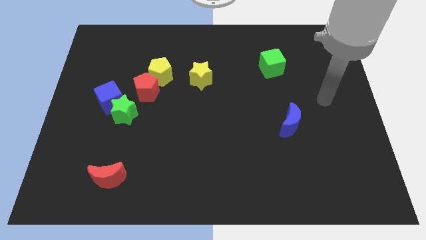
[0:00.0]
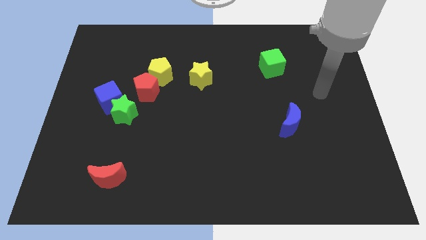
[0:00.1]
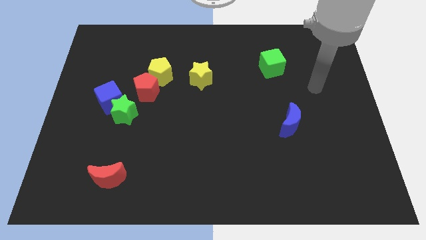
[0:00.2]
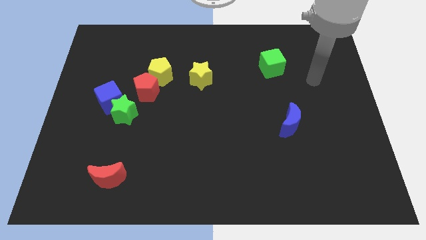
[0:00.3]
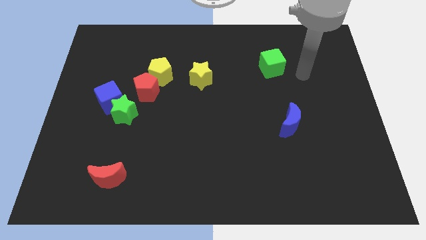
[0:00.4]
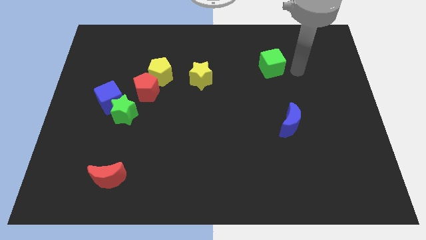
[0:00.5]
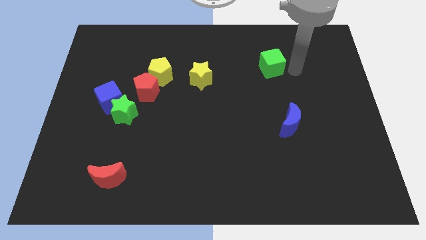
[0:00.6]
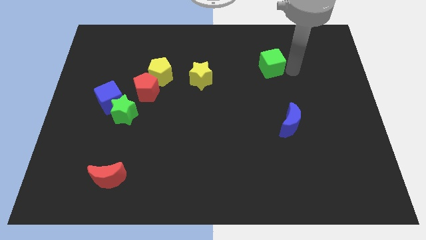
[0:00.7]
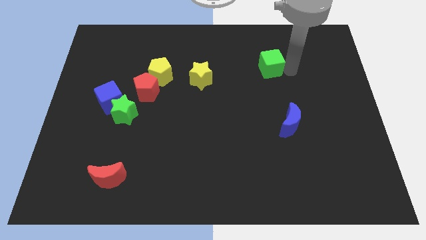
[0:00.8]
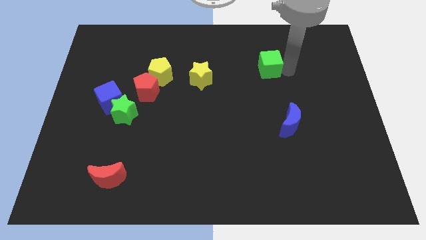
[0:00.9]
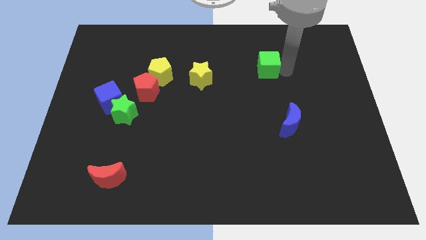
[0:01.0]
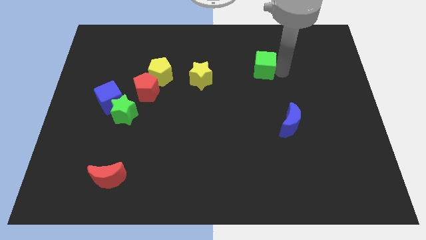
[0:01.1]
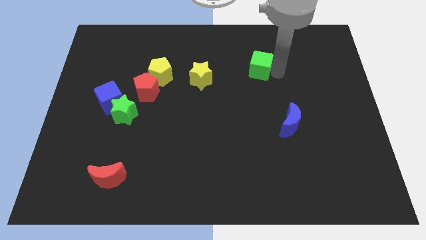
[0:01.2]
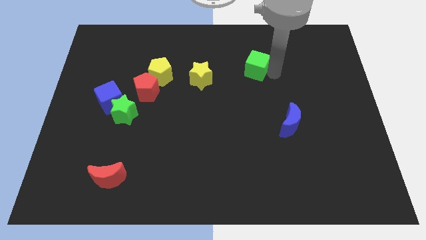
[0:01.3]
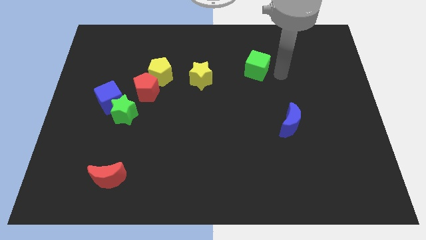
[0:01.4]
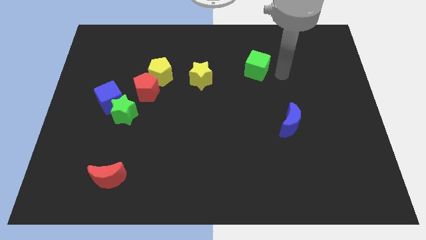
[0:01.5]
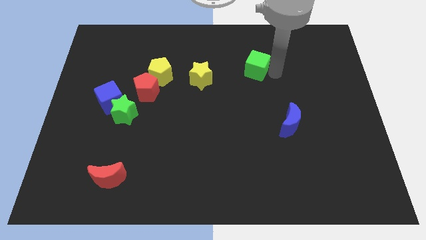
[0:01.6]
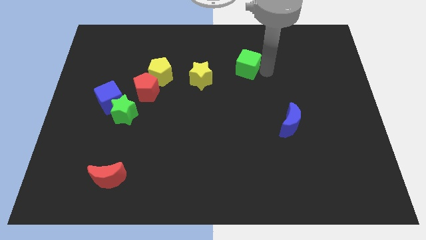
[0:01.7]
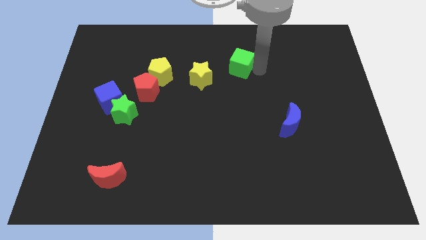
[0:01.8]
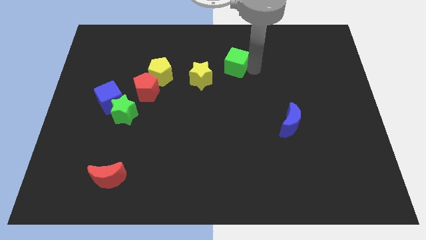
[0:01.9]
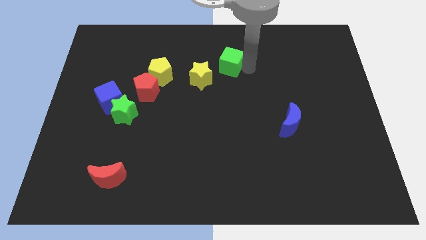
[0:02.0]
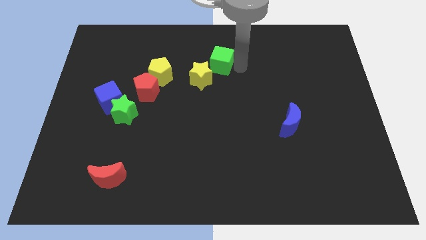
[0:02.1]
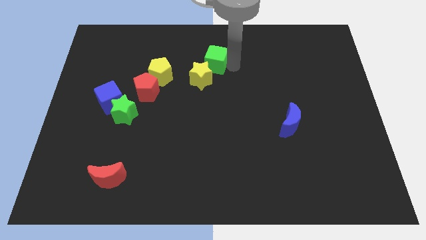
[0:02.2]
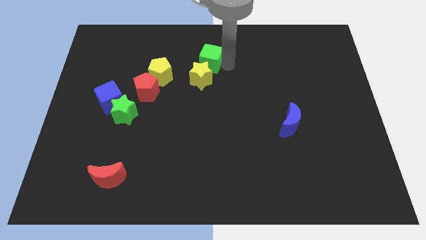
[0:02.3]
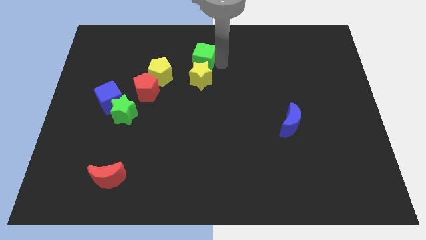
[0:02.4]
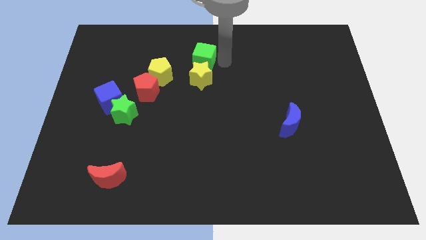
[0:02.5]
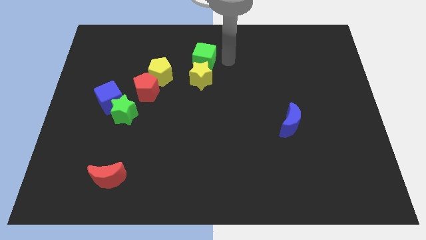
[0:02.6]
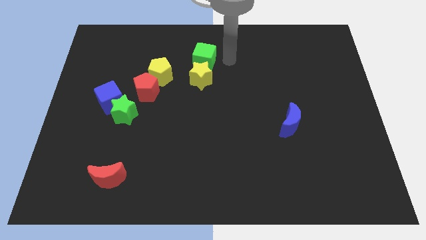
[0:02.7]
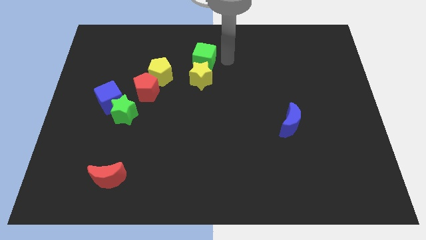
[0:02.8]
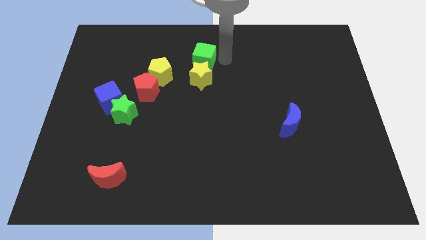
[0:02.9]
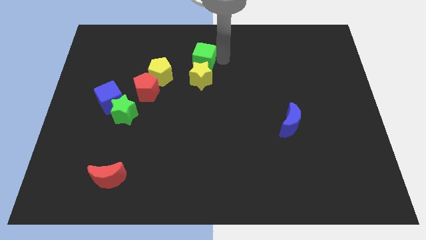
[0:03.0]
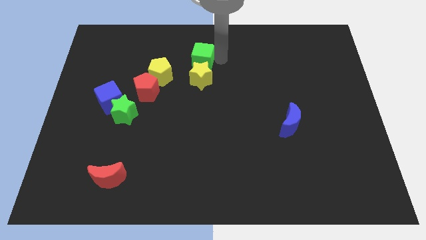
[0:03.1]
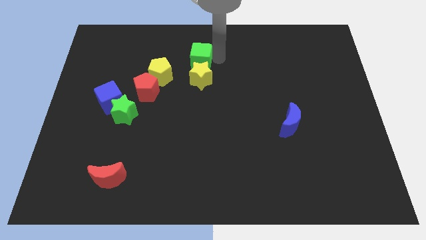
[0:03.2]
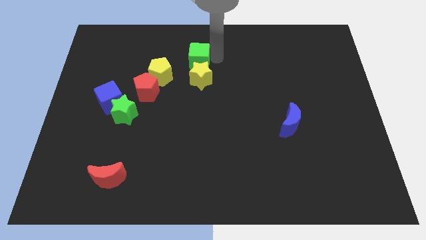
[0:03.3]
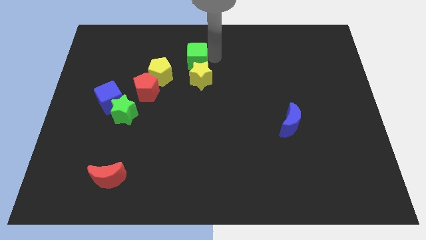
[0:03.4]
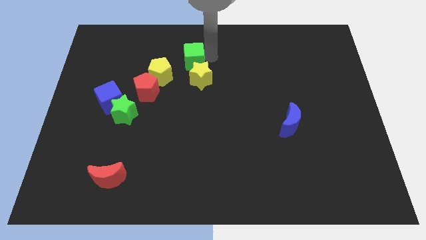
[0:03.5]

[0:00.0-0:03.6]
slide the green cube left

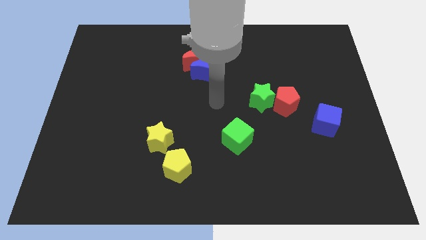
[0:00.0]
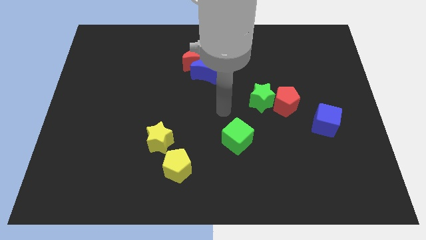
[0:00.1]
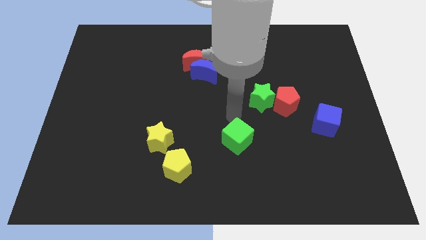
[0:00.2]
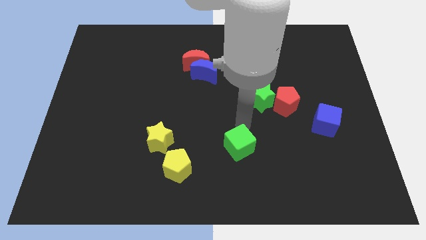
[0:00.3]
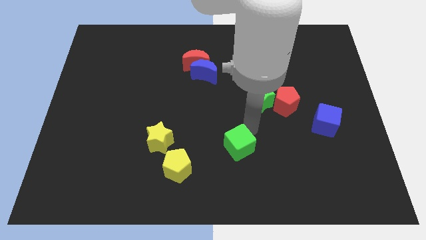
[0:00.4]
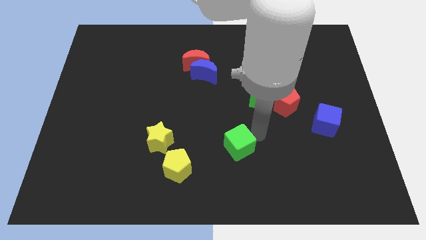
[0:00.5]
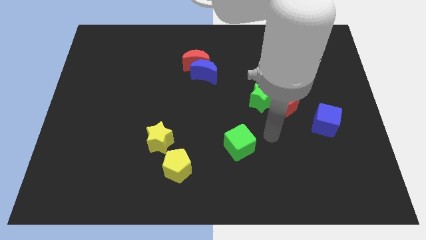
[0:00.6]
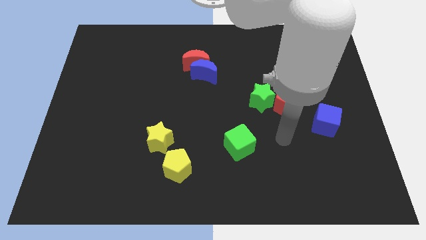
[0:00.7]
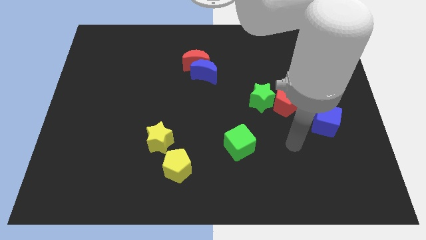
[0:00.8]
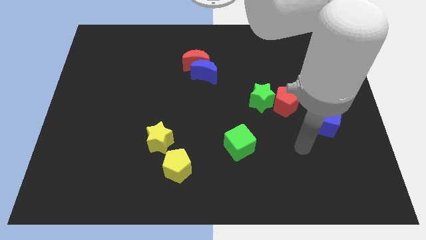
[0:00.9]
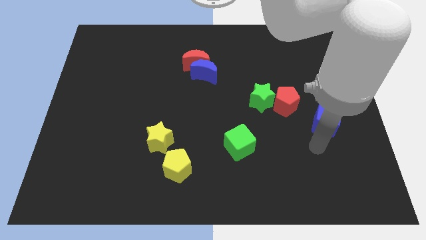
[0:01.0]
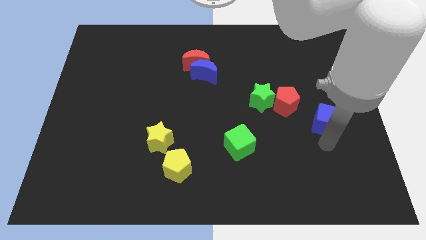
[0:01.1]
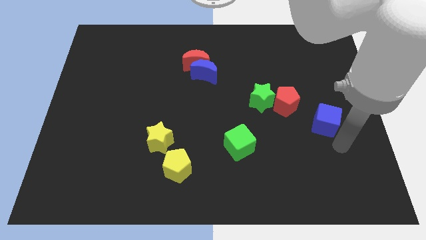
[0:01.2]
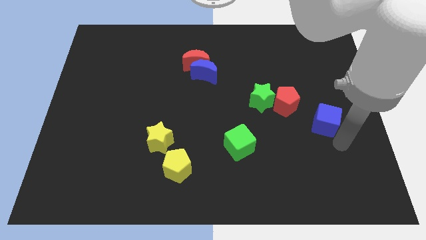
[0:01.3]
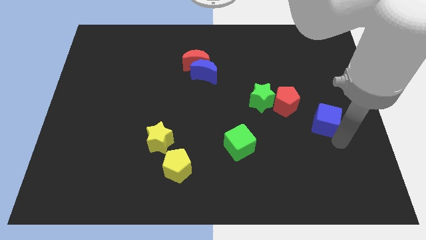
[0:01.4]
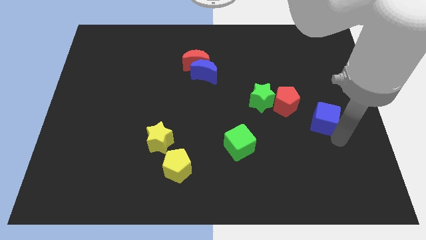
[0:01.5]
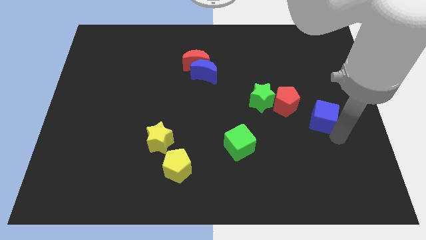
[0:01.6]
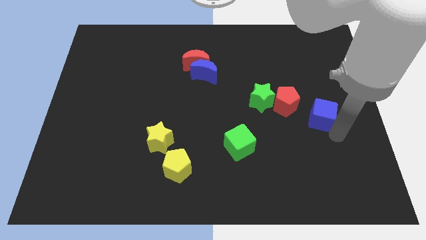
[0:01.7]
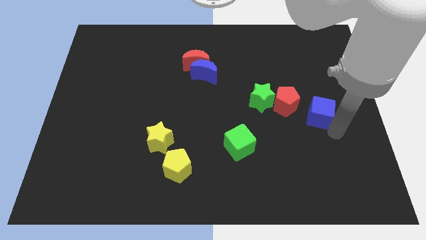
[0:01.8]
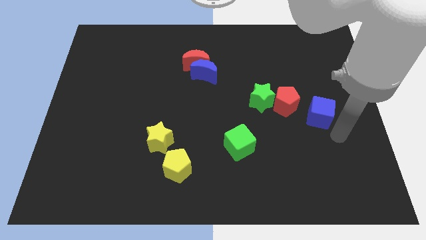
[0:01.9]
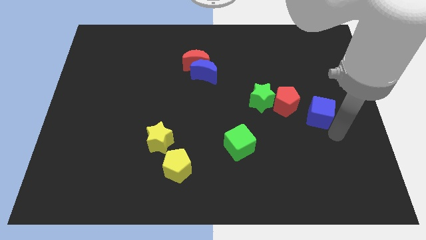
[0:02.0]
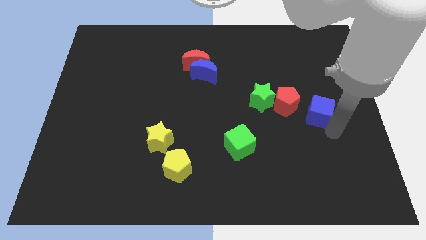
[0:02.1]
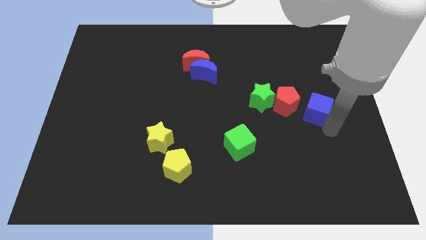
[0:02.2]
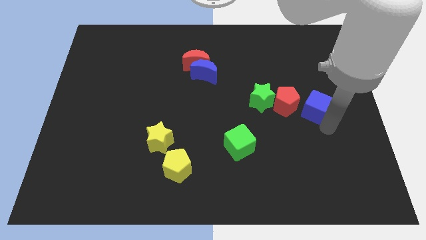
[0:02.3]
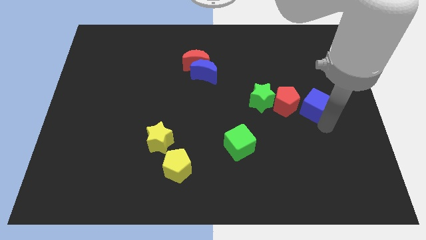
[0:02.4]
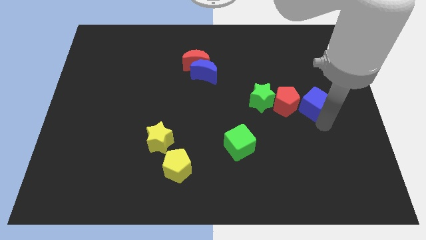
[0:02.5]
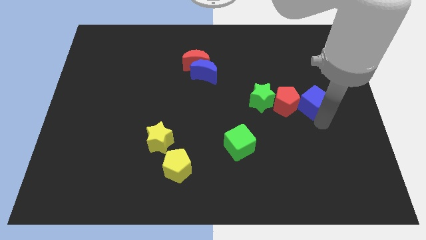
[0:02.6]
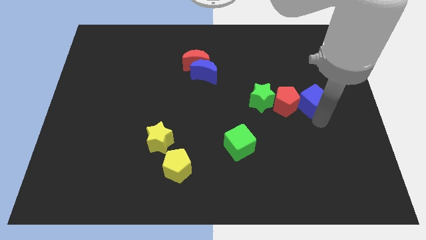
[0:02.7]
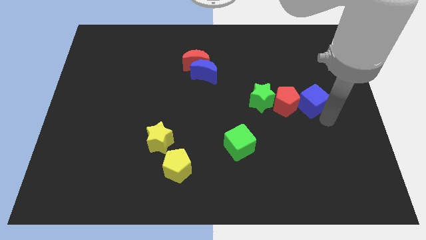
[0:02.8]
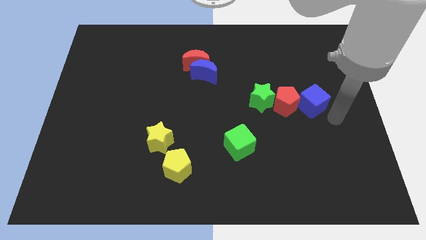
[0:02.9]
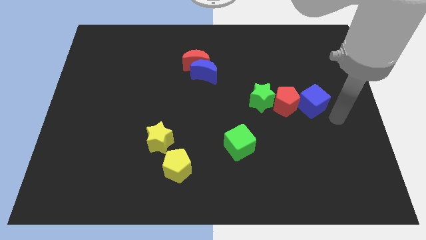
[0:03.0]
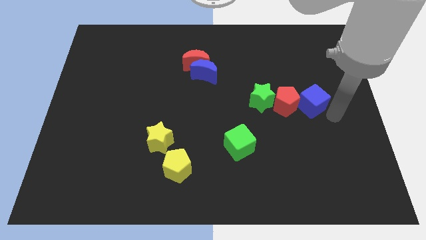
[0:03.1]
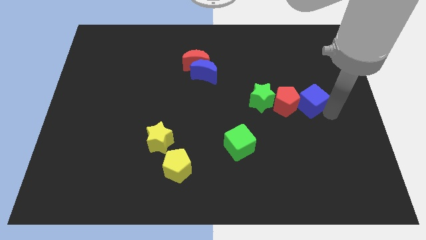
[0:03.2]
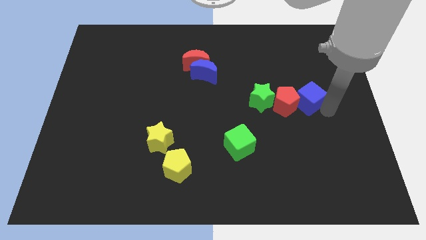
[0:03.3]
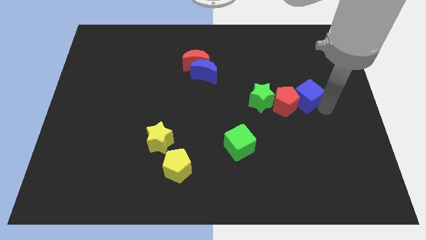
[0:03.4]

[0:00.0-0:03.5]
move the blue cube diagonally up and left a little

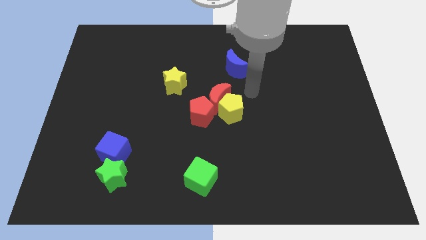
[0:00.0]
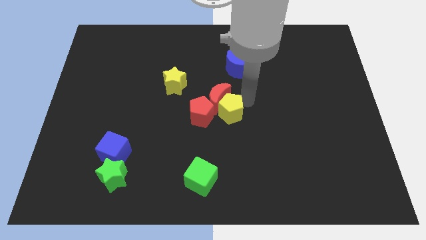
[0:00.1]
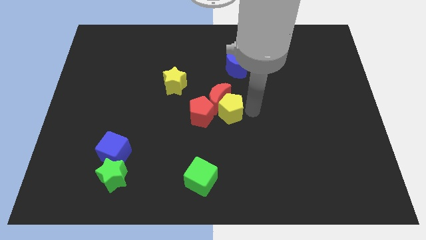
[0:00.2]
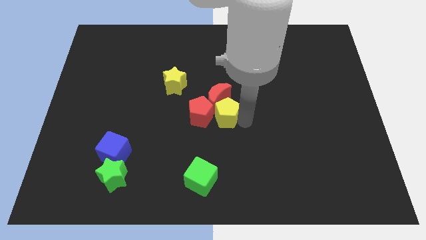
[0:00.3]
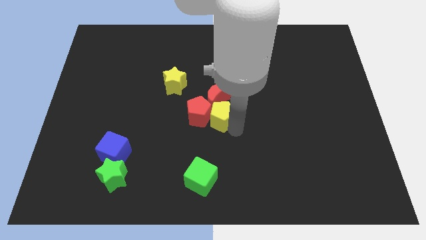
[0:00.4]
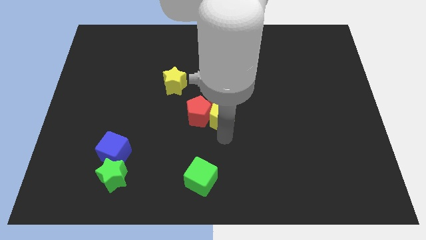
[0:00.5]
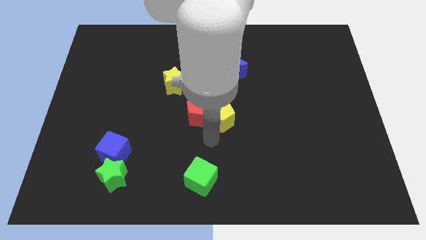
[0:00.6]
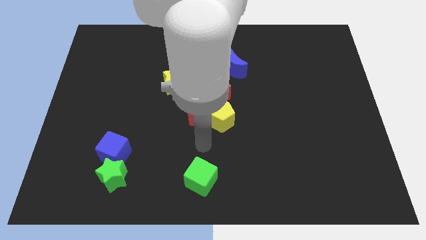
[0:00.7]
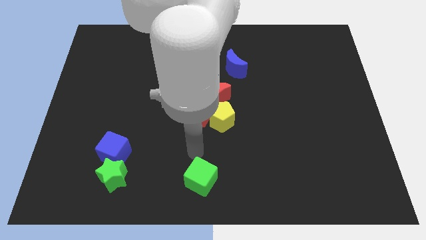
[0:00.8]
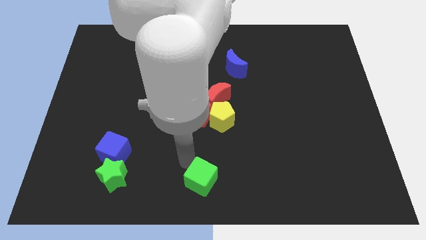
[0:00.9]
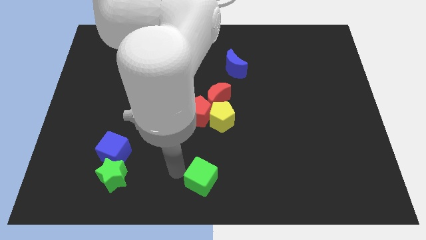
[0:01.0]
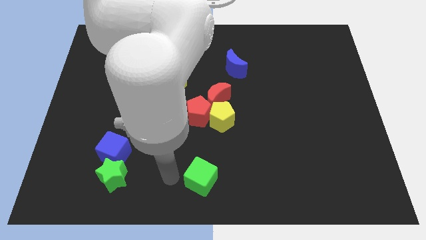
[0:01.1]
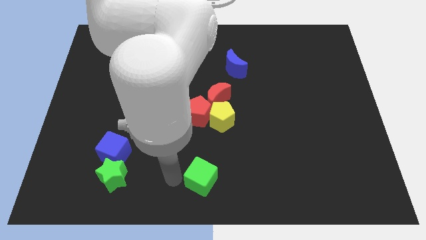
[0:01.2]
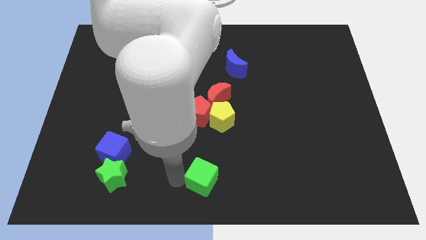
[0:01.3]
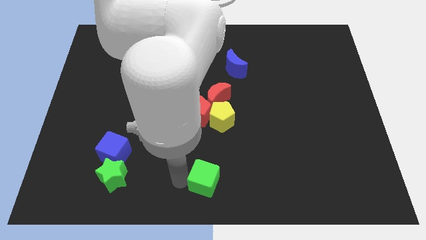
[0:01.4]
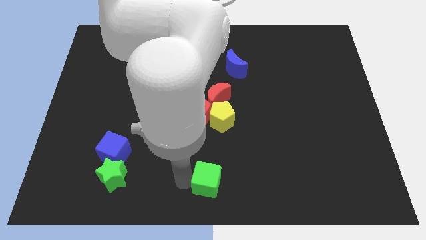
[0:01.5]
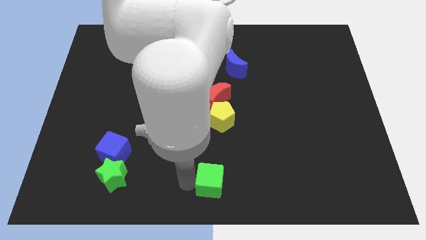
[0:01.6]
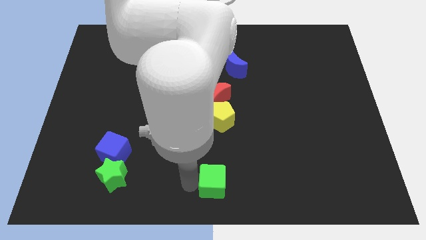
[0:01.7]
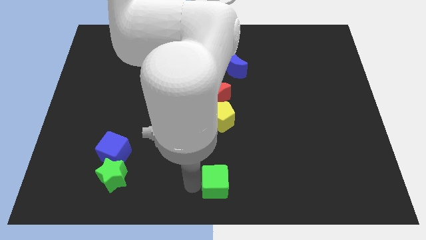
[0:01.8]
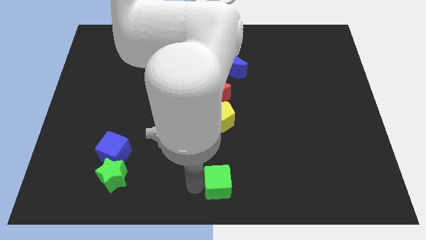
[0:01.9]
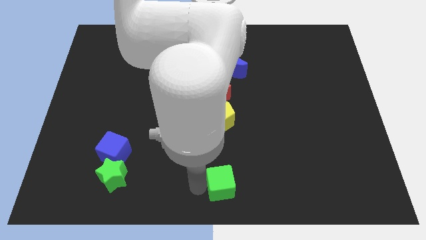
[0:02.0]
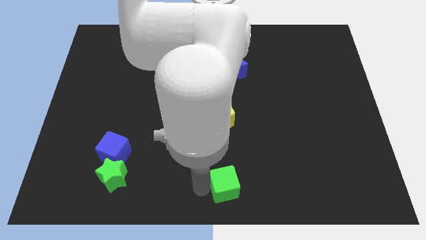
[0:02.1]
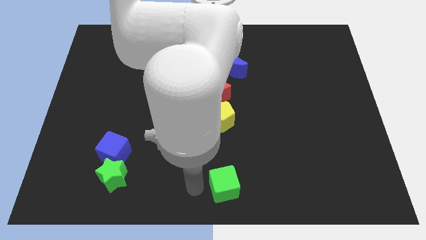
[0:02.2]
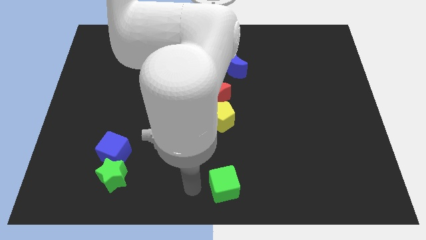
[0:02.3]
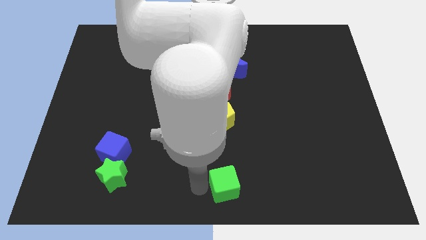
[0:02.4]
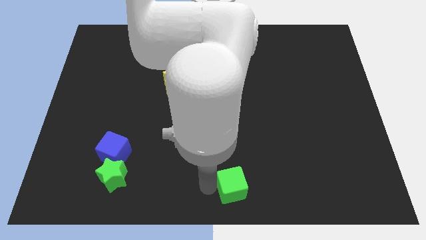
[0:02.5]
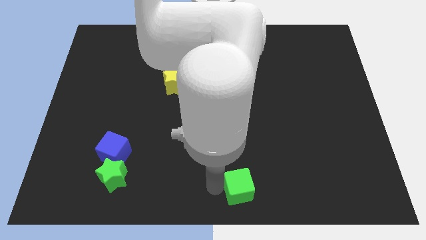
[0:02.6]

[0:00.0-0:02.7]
slightly move the green cube right
